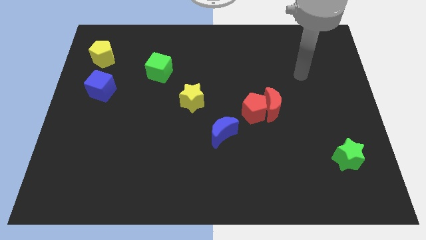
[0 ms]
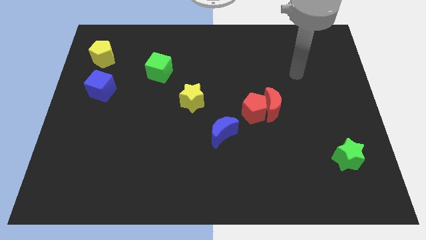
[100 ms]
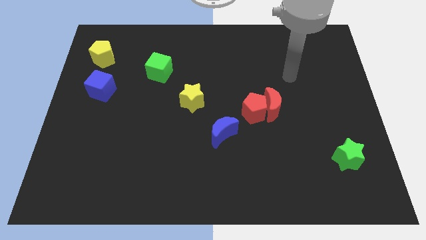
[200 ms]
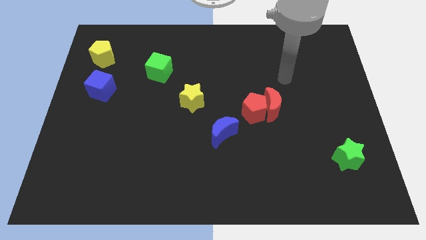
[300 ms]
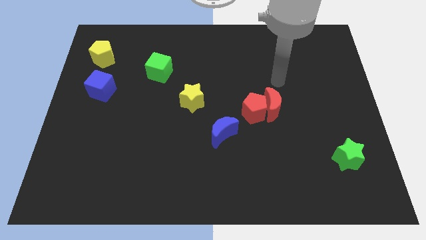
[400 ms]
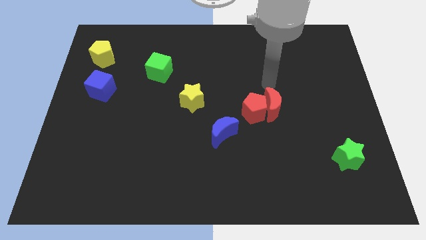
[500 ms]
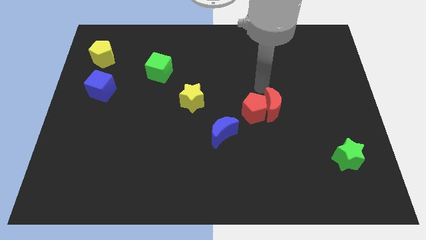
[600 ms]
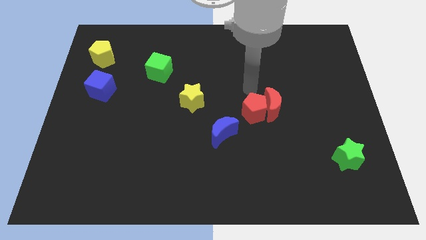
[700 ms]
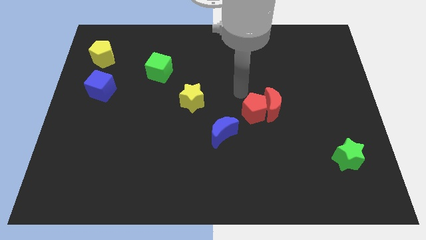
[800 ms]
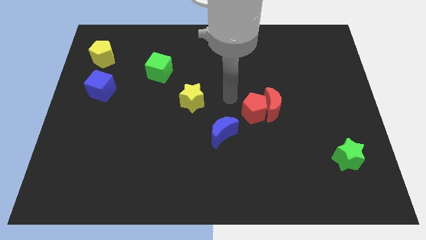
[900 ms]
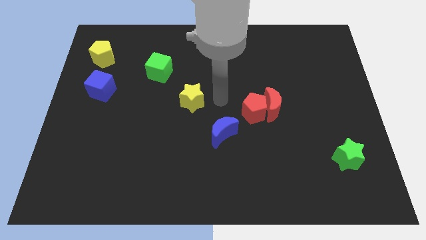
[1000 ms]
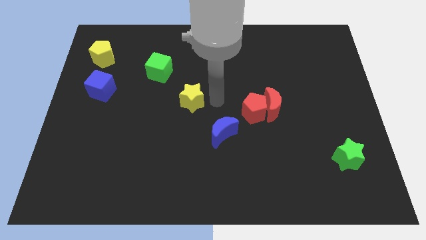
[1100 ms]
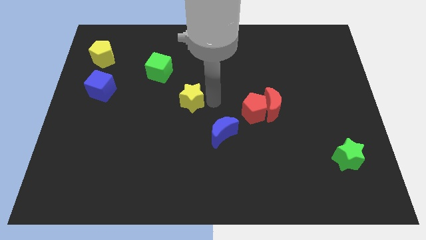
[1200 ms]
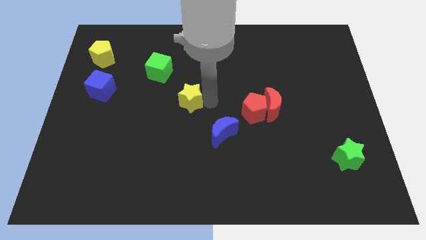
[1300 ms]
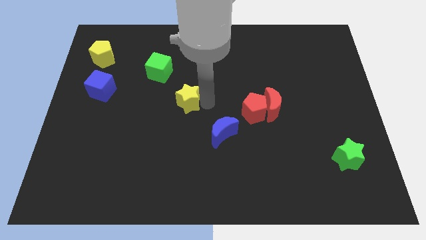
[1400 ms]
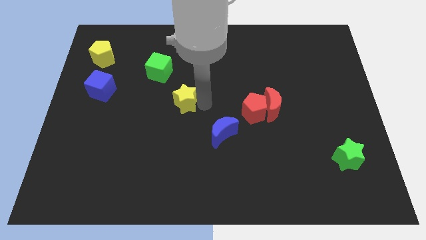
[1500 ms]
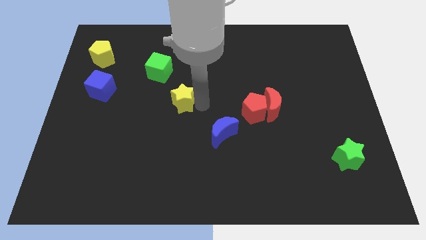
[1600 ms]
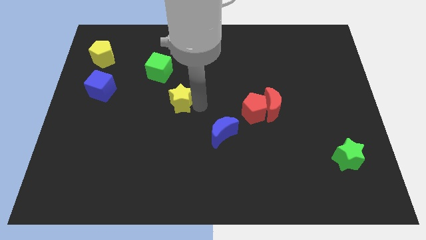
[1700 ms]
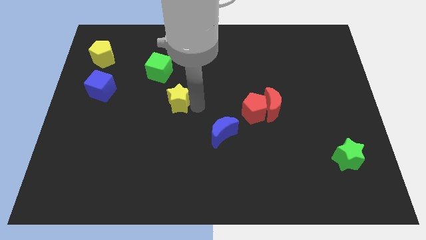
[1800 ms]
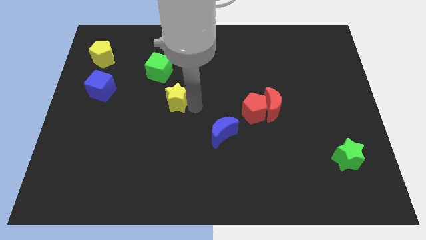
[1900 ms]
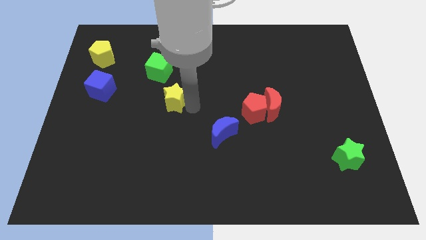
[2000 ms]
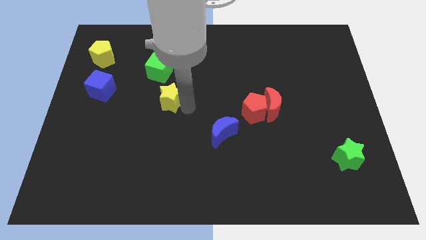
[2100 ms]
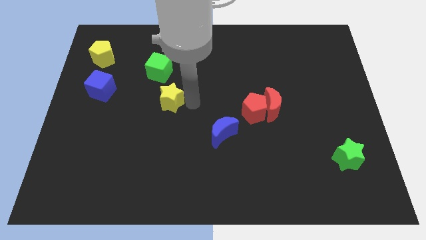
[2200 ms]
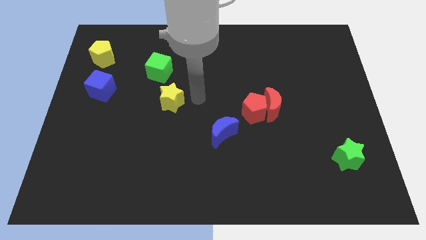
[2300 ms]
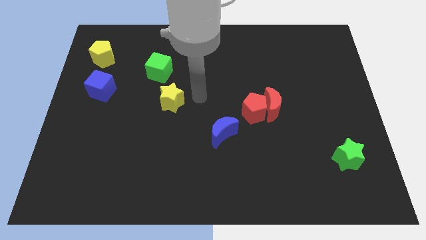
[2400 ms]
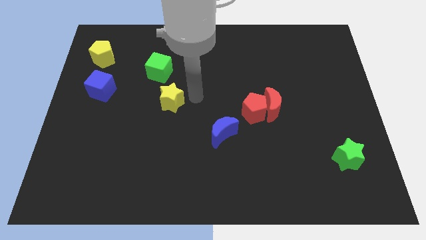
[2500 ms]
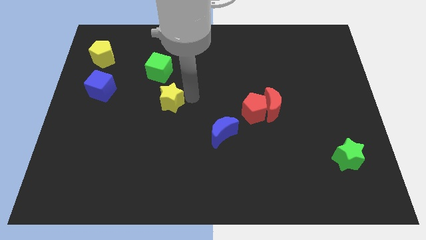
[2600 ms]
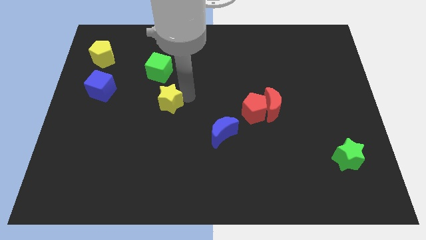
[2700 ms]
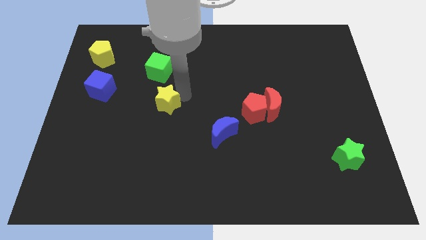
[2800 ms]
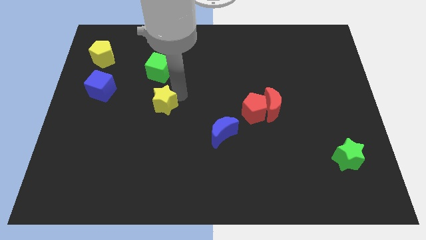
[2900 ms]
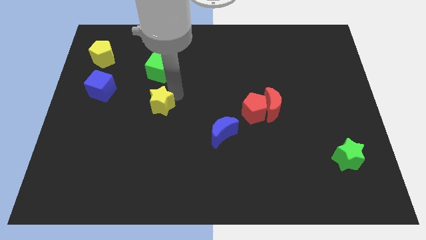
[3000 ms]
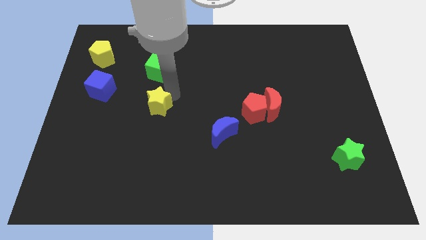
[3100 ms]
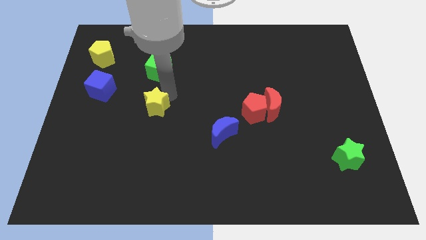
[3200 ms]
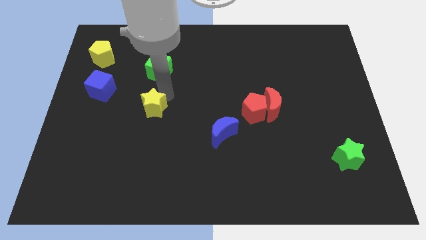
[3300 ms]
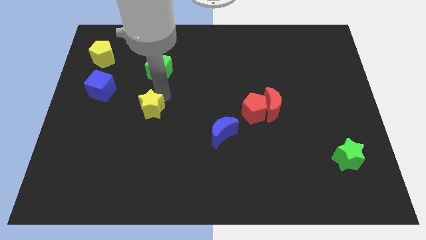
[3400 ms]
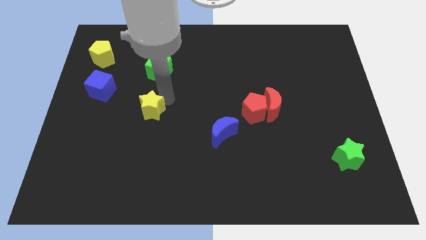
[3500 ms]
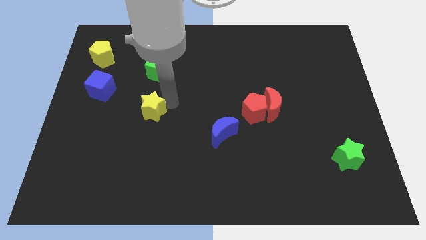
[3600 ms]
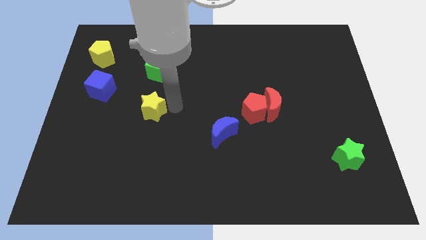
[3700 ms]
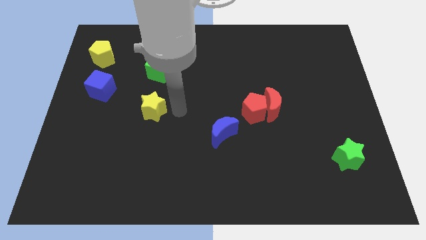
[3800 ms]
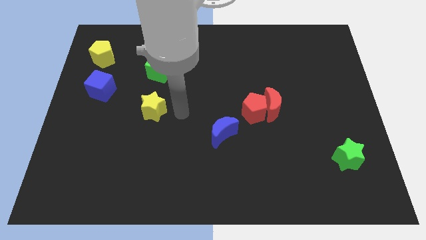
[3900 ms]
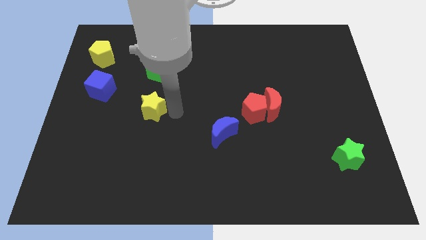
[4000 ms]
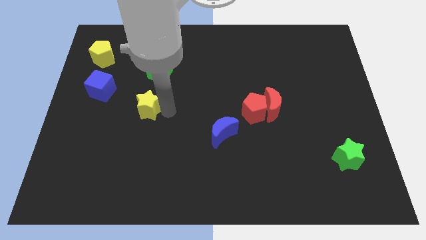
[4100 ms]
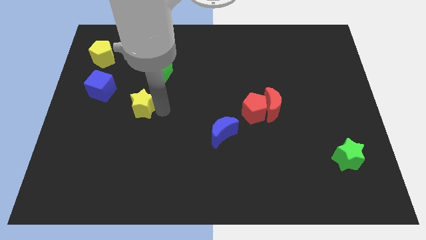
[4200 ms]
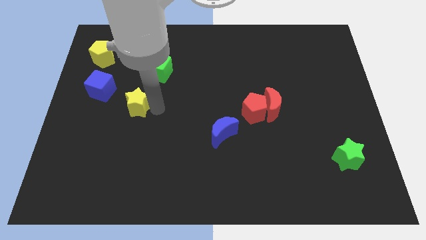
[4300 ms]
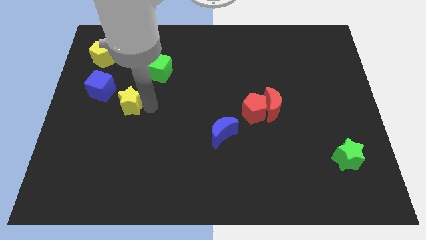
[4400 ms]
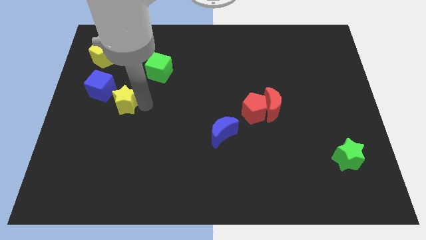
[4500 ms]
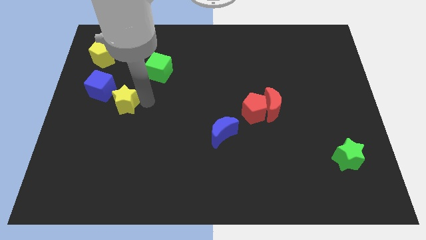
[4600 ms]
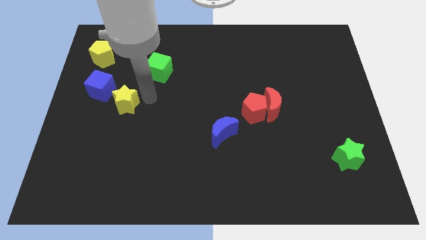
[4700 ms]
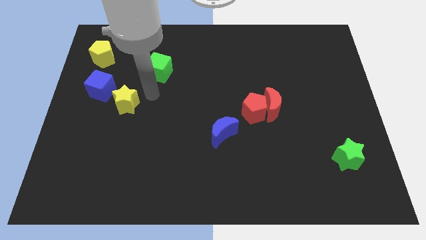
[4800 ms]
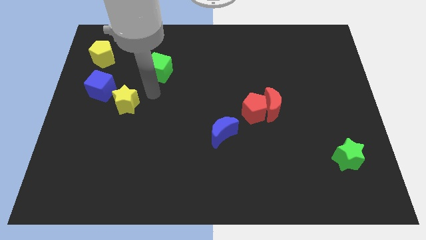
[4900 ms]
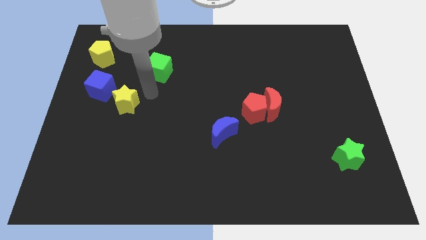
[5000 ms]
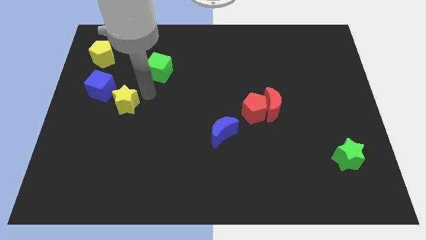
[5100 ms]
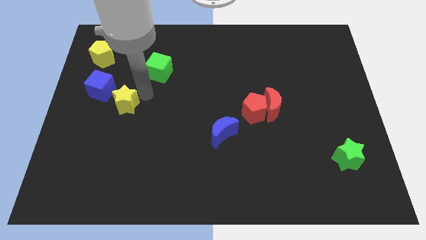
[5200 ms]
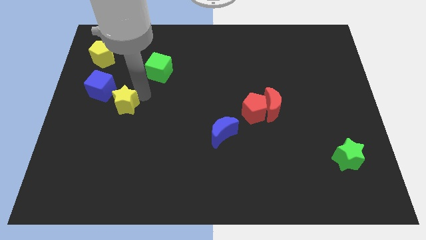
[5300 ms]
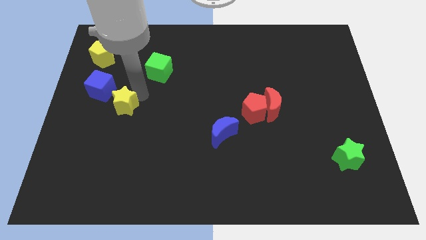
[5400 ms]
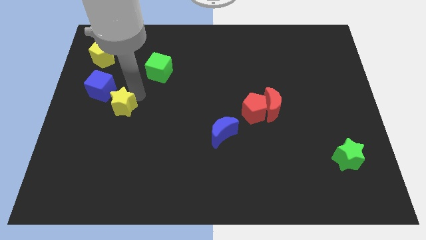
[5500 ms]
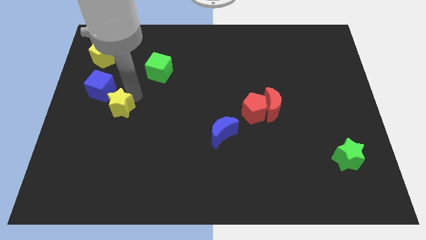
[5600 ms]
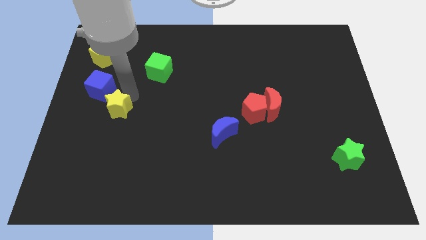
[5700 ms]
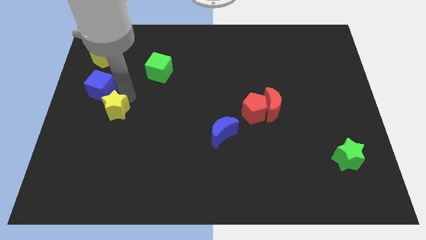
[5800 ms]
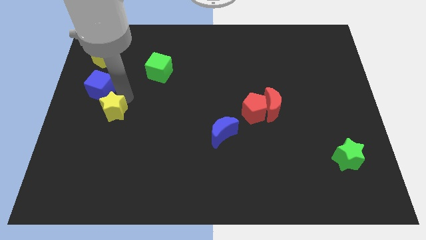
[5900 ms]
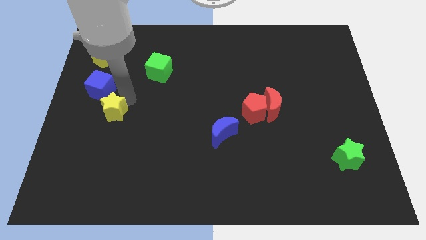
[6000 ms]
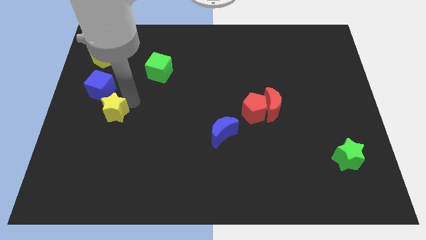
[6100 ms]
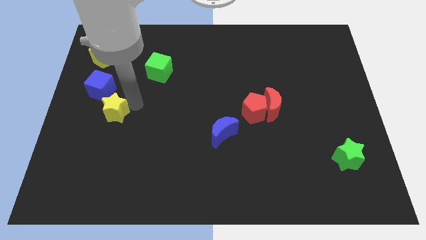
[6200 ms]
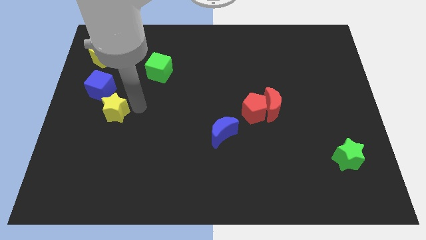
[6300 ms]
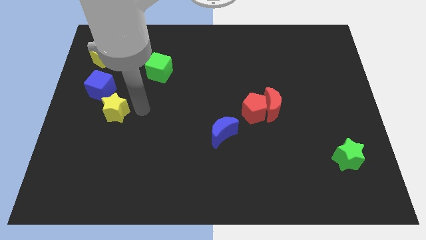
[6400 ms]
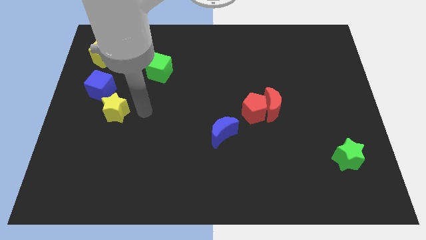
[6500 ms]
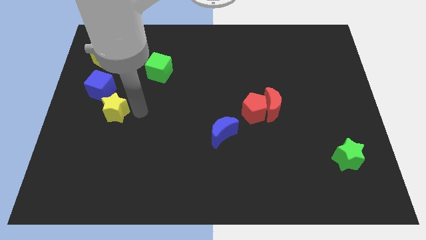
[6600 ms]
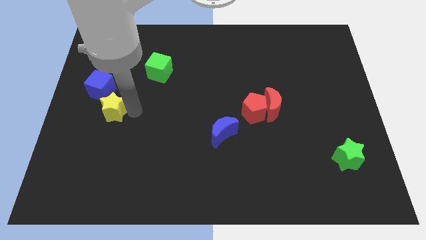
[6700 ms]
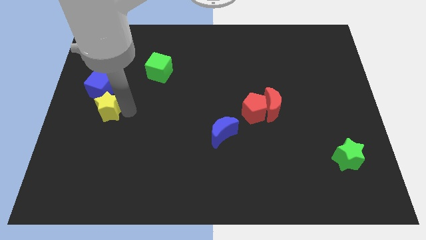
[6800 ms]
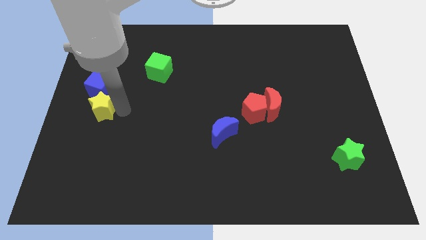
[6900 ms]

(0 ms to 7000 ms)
slide the yellow star to the left side
